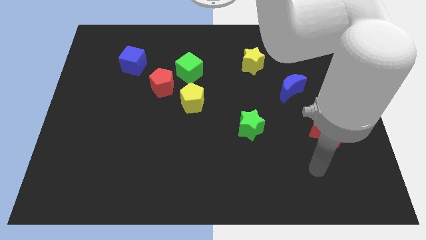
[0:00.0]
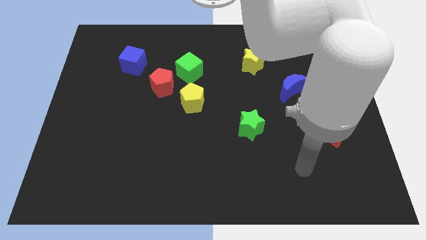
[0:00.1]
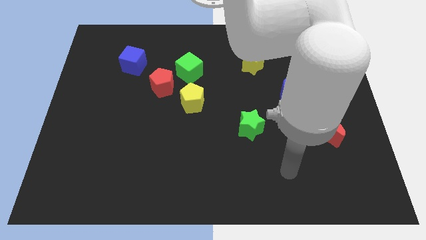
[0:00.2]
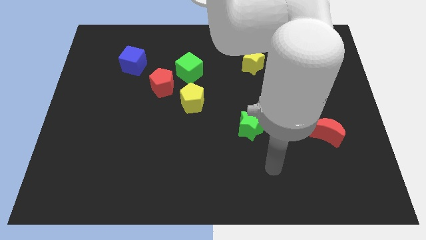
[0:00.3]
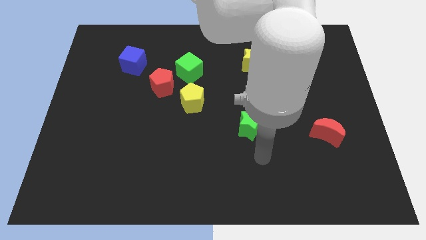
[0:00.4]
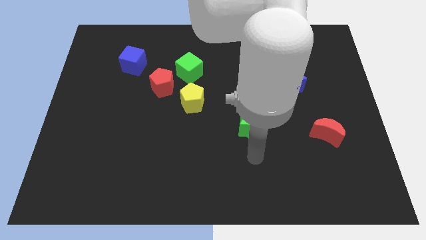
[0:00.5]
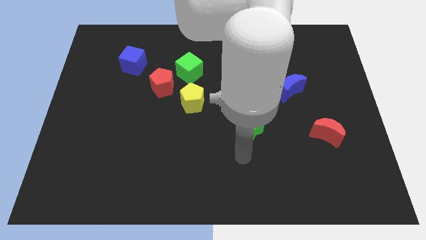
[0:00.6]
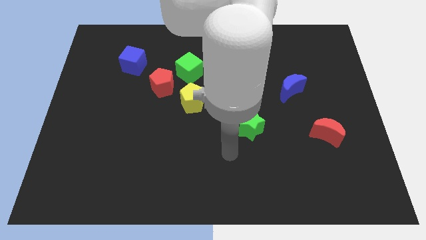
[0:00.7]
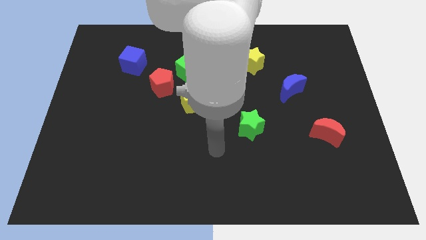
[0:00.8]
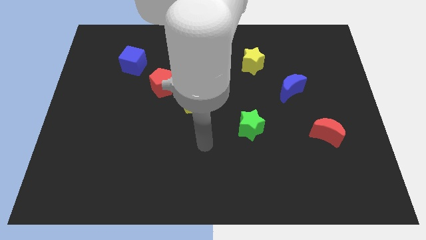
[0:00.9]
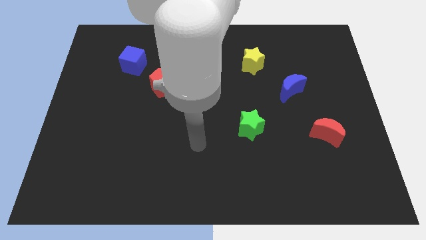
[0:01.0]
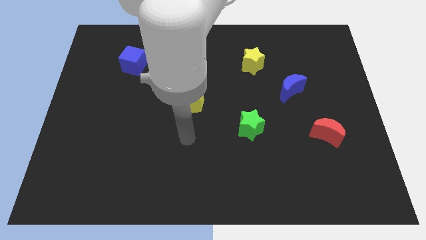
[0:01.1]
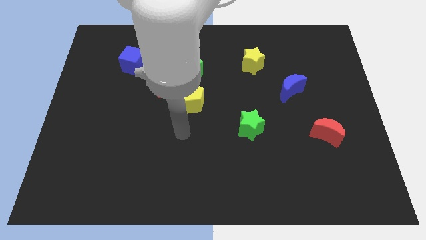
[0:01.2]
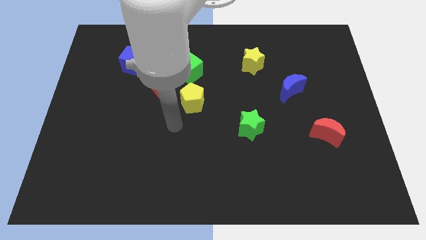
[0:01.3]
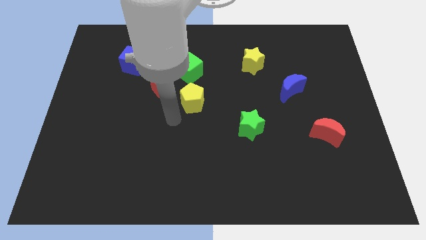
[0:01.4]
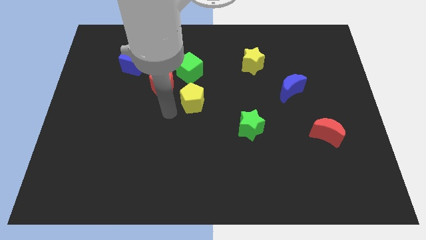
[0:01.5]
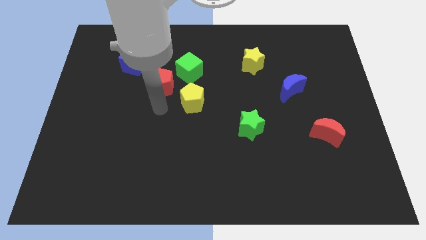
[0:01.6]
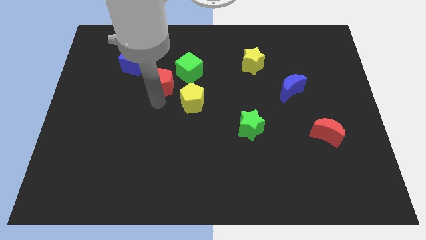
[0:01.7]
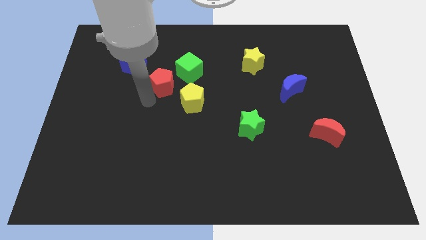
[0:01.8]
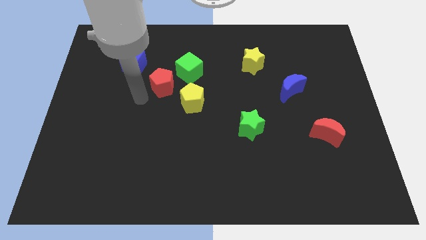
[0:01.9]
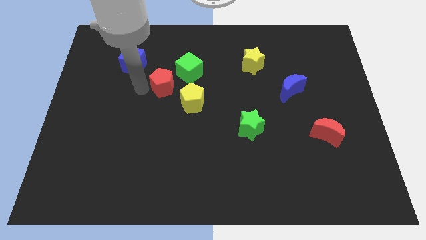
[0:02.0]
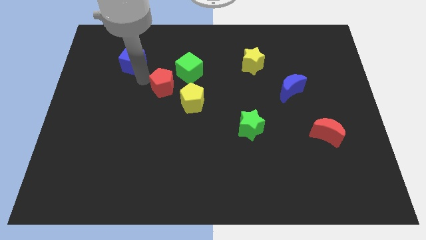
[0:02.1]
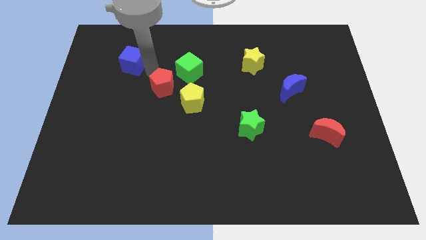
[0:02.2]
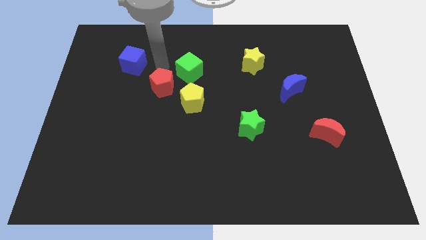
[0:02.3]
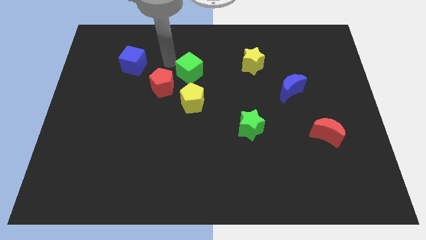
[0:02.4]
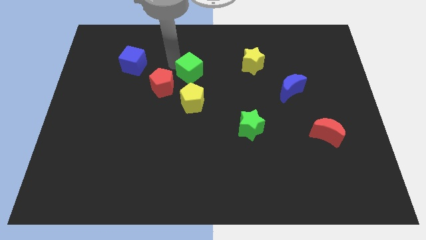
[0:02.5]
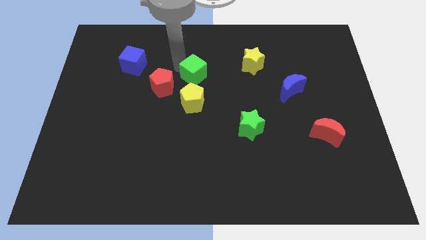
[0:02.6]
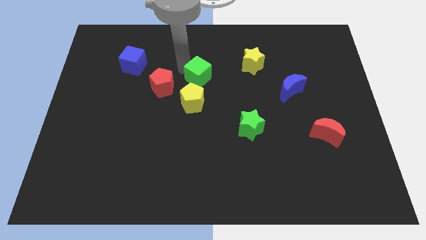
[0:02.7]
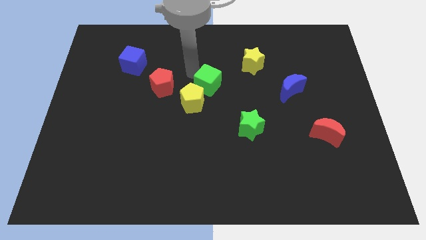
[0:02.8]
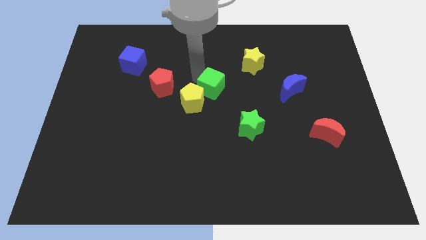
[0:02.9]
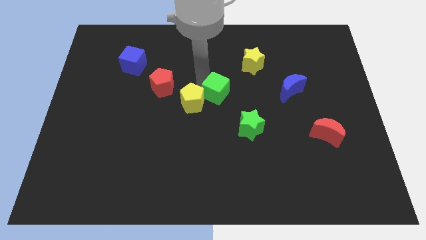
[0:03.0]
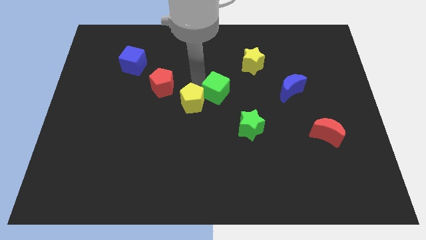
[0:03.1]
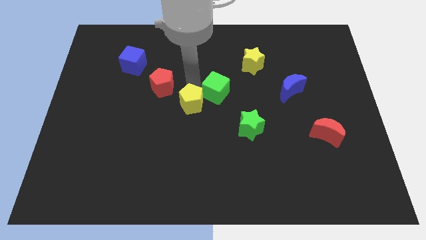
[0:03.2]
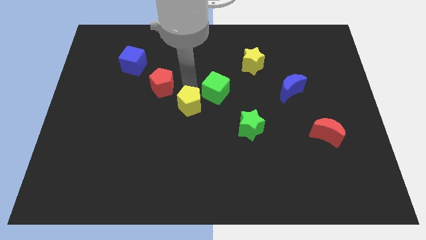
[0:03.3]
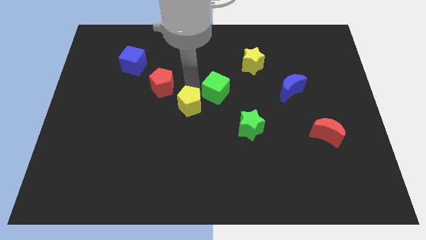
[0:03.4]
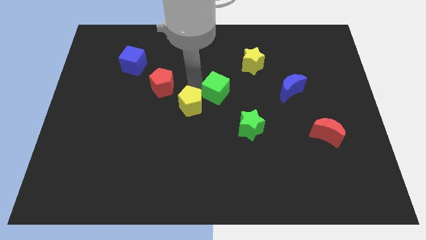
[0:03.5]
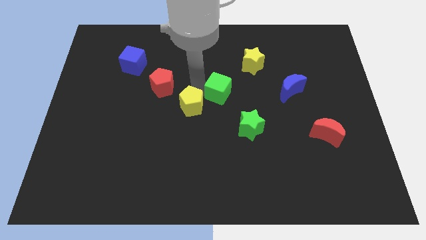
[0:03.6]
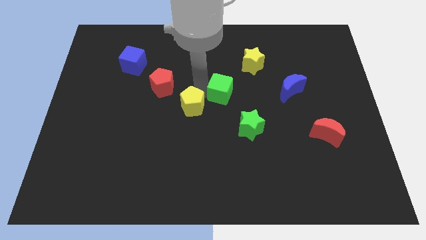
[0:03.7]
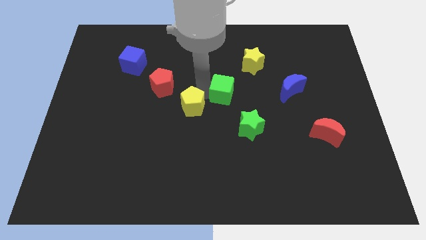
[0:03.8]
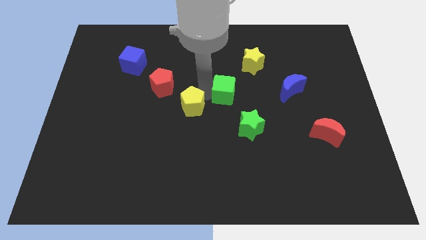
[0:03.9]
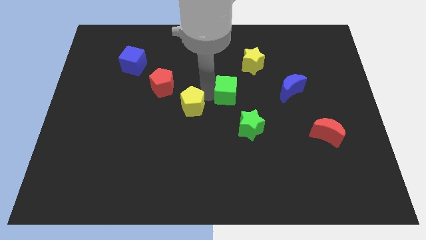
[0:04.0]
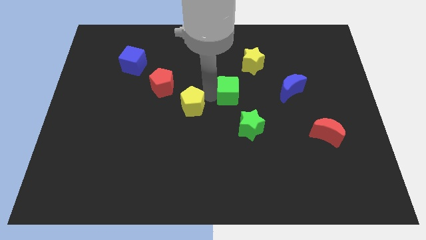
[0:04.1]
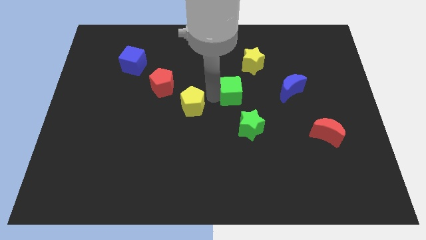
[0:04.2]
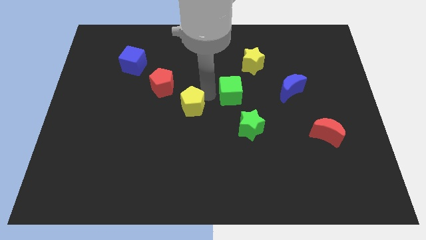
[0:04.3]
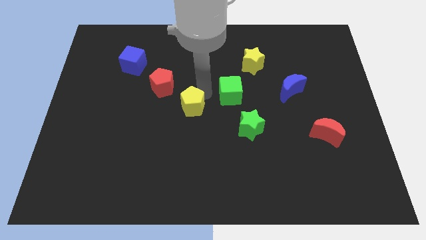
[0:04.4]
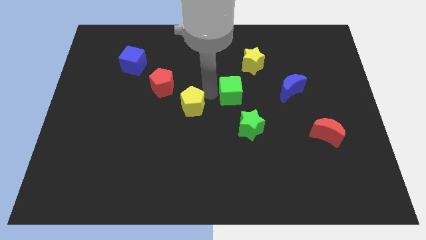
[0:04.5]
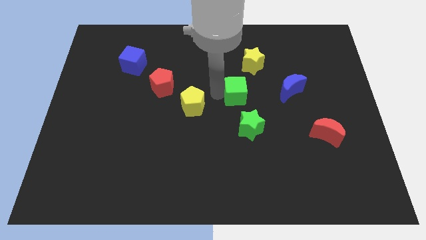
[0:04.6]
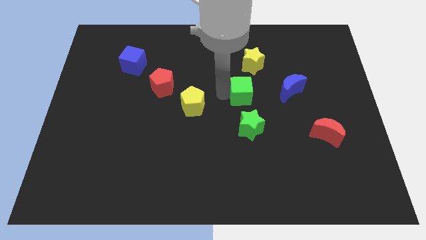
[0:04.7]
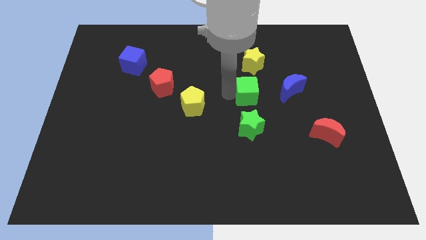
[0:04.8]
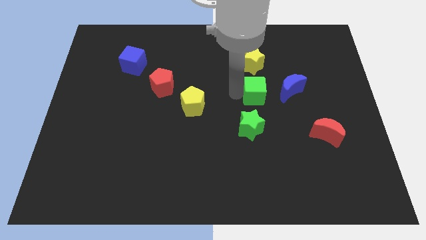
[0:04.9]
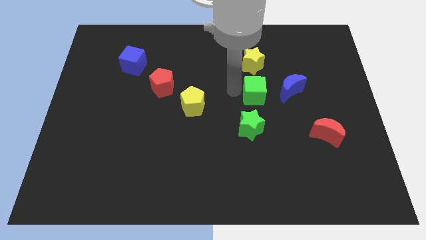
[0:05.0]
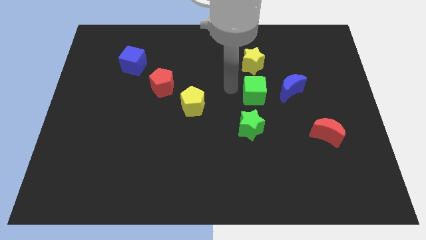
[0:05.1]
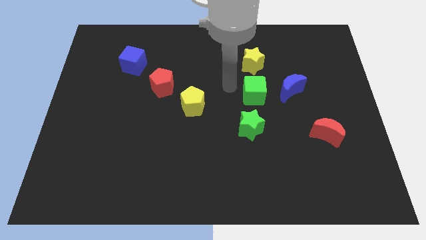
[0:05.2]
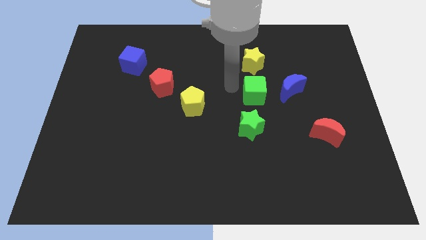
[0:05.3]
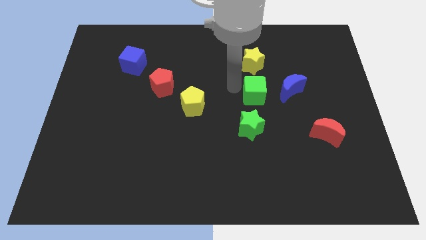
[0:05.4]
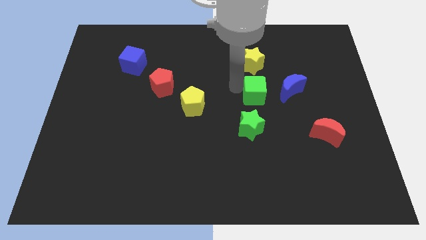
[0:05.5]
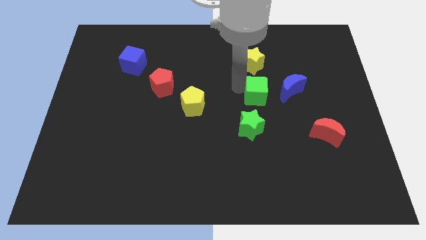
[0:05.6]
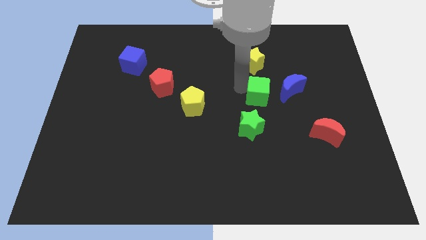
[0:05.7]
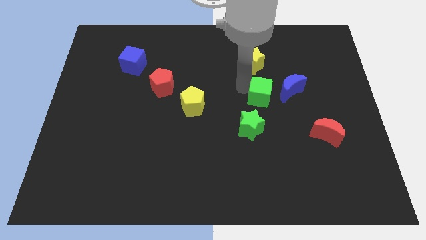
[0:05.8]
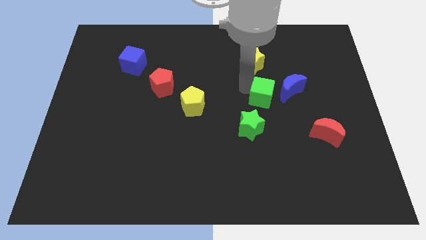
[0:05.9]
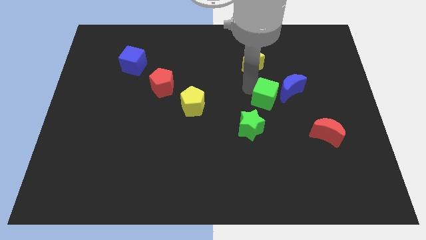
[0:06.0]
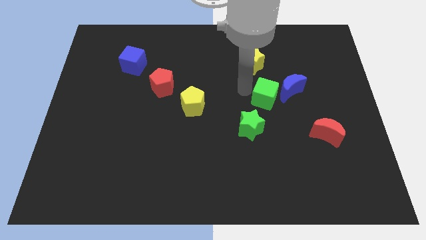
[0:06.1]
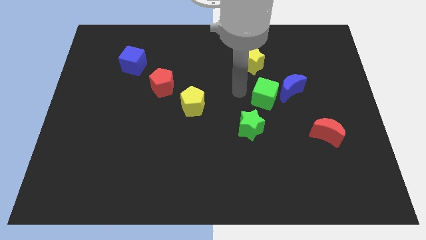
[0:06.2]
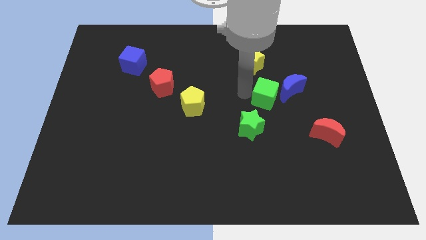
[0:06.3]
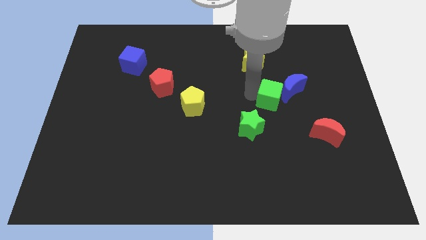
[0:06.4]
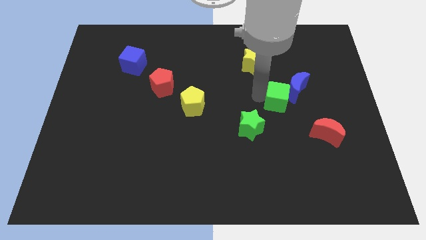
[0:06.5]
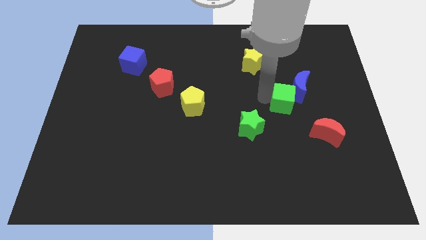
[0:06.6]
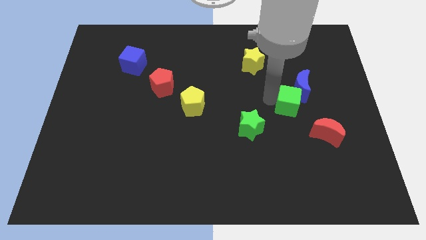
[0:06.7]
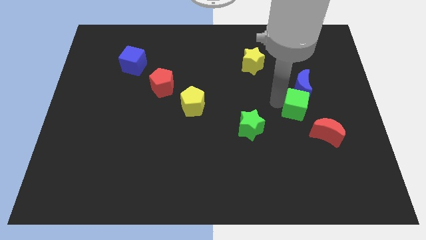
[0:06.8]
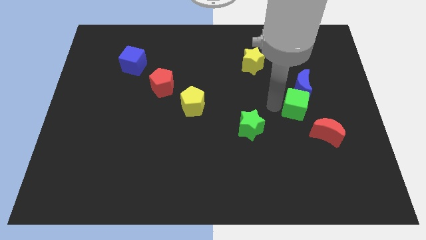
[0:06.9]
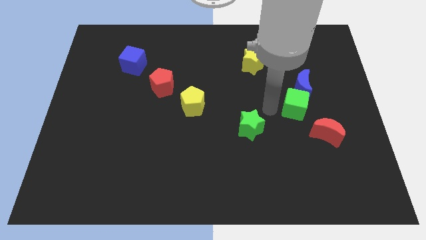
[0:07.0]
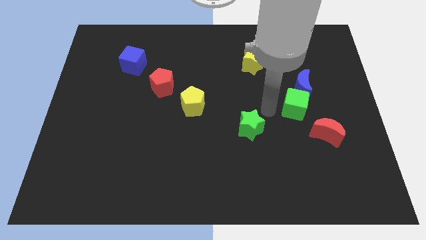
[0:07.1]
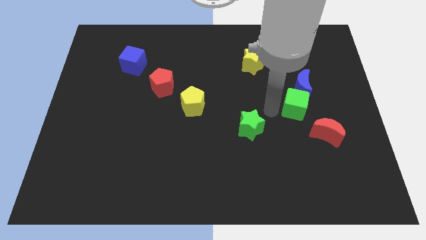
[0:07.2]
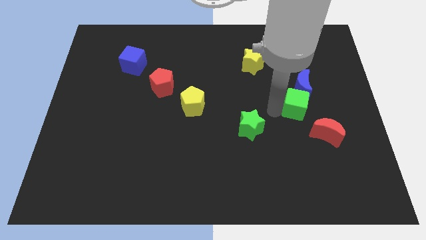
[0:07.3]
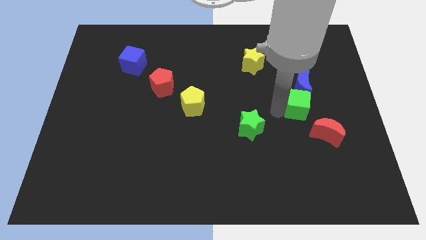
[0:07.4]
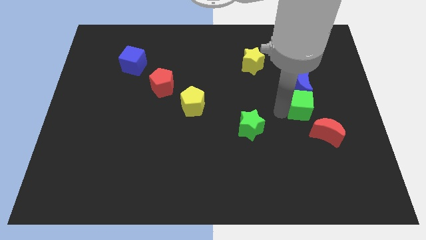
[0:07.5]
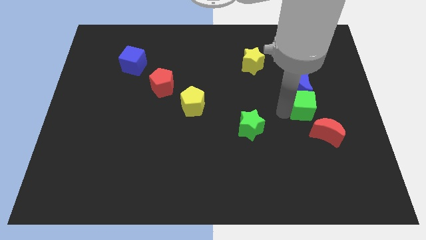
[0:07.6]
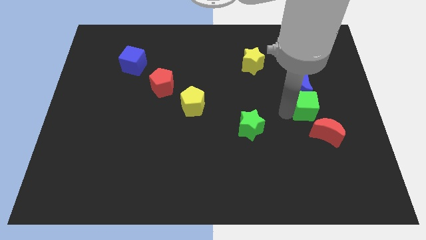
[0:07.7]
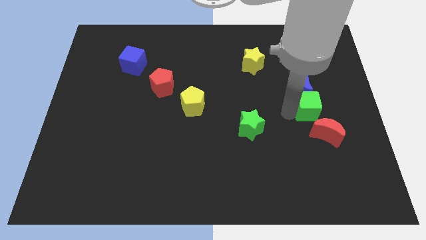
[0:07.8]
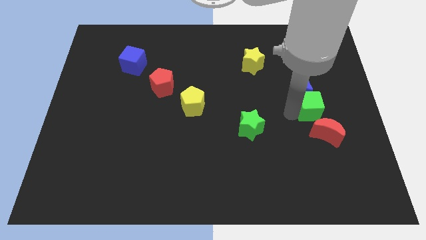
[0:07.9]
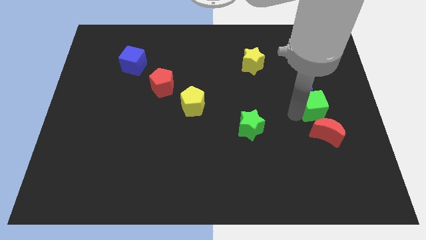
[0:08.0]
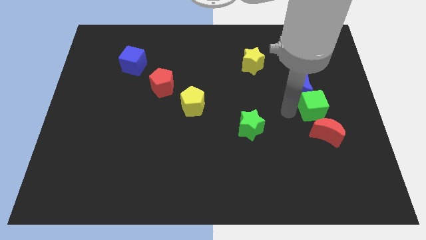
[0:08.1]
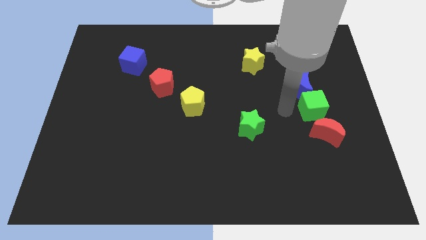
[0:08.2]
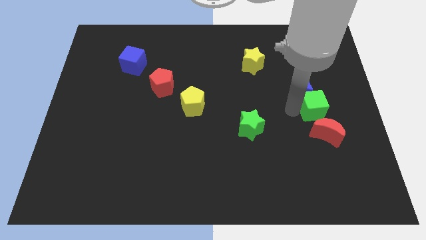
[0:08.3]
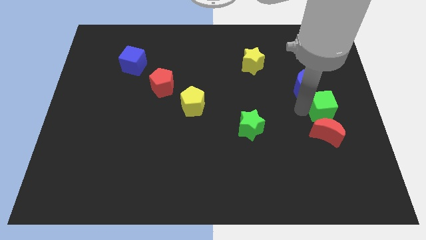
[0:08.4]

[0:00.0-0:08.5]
push the green cube to the right side of the board
